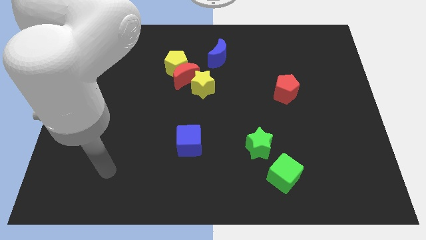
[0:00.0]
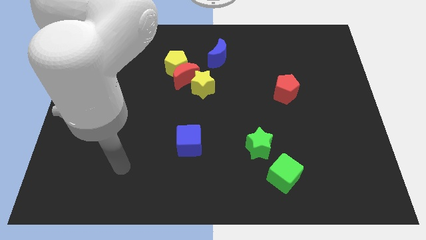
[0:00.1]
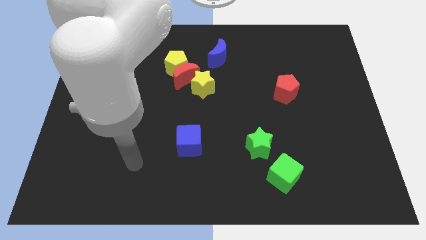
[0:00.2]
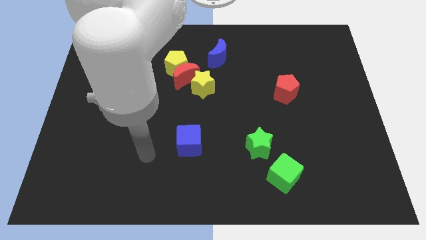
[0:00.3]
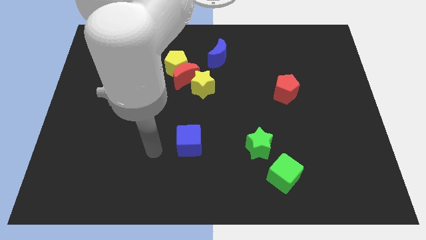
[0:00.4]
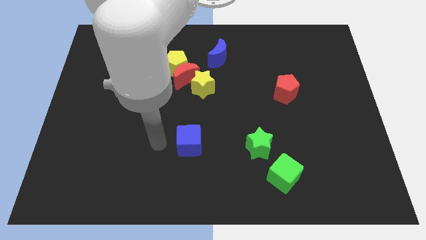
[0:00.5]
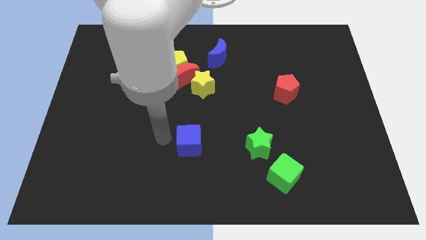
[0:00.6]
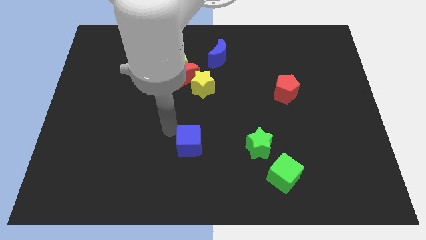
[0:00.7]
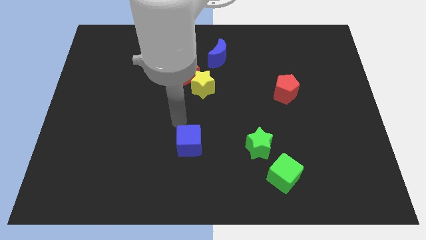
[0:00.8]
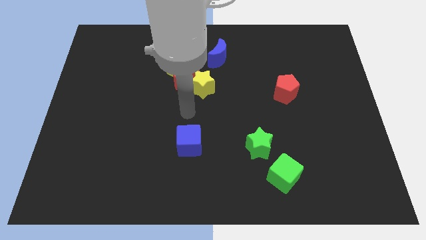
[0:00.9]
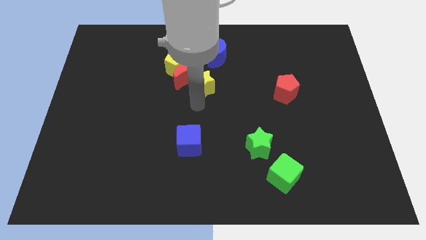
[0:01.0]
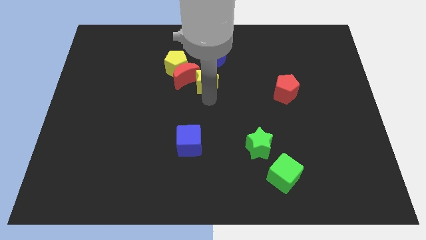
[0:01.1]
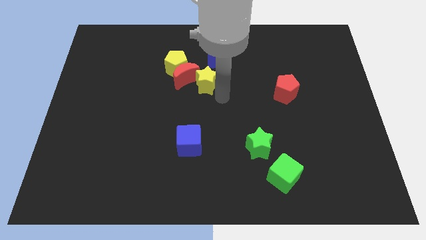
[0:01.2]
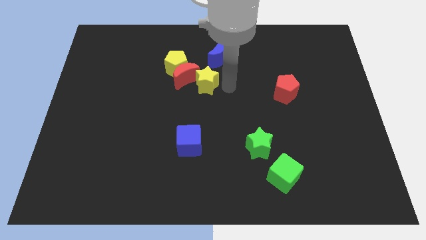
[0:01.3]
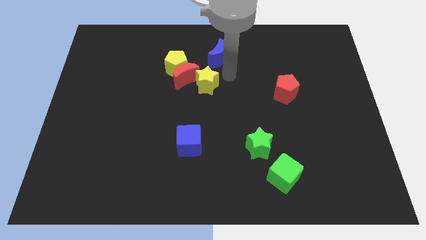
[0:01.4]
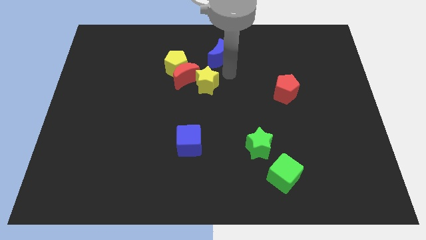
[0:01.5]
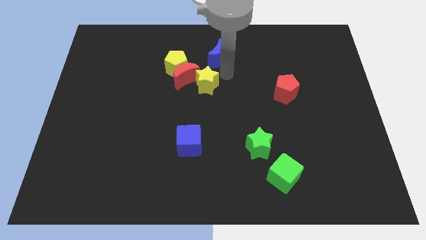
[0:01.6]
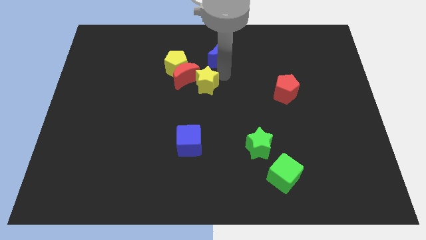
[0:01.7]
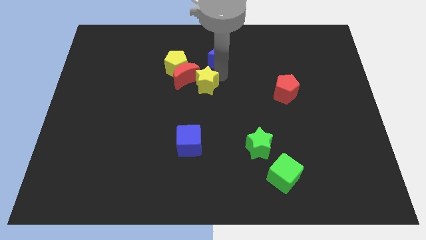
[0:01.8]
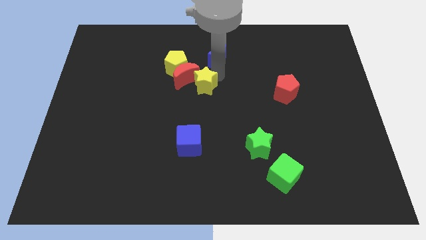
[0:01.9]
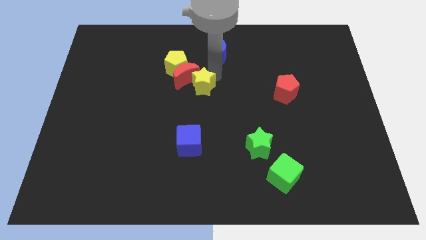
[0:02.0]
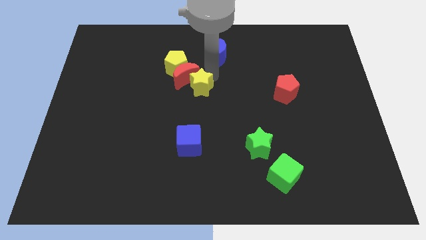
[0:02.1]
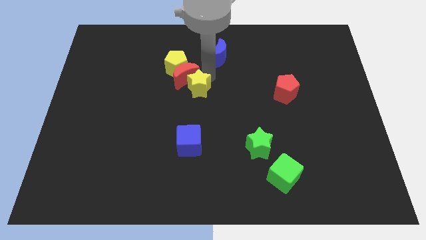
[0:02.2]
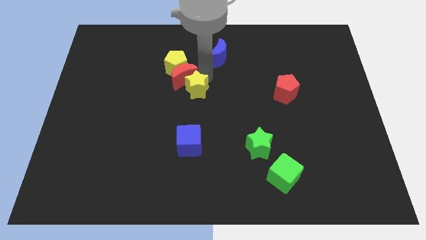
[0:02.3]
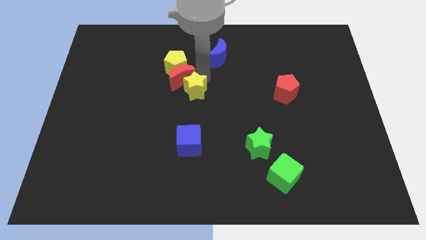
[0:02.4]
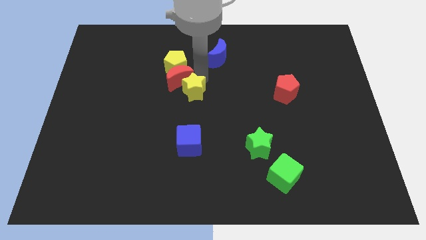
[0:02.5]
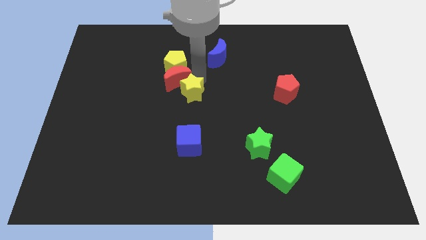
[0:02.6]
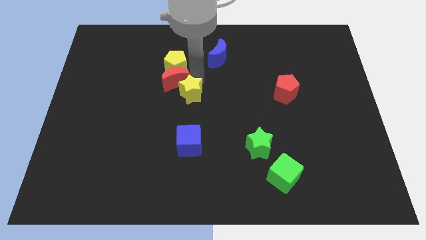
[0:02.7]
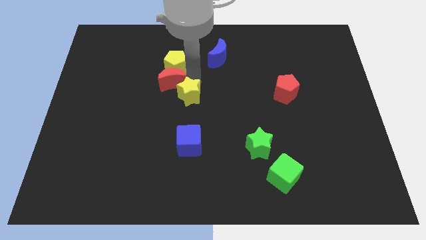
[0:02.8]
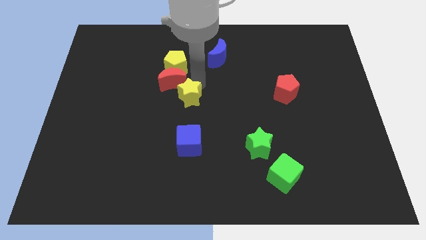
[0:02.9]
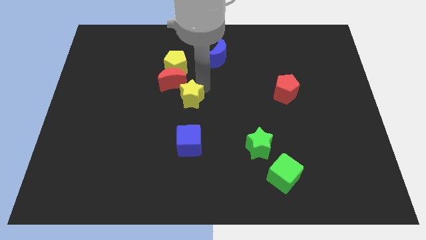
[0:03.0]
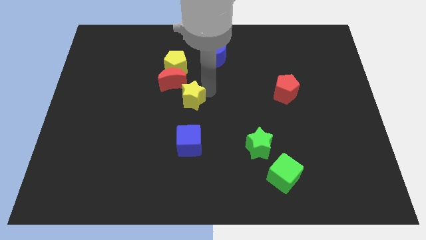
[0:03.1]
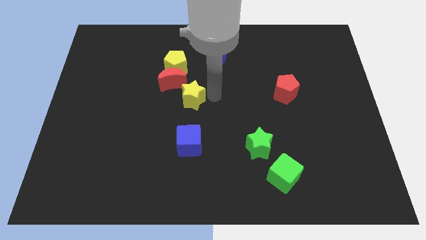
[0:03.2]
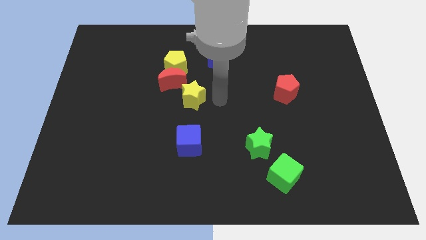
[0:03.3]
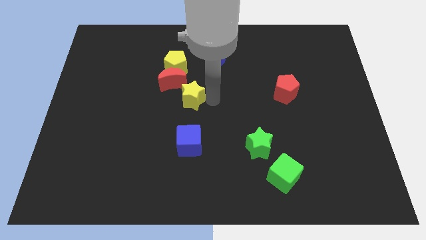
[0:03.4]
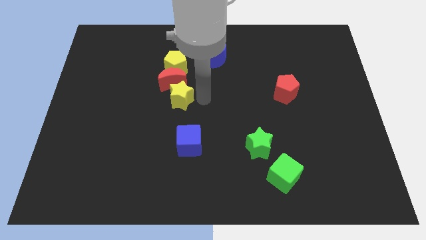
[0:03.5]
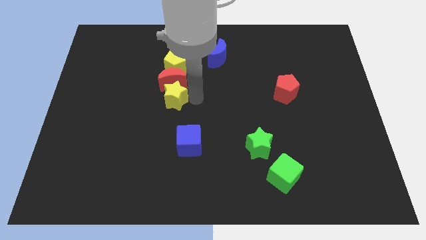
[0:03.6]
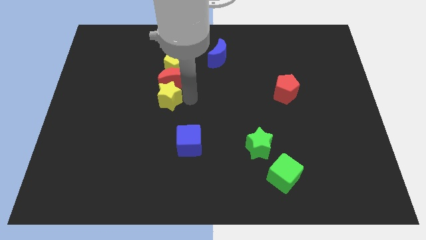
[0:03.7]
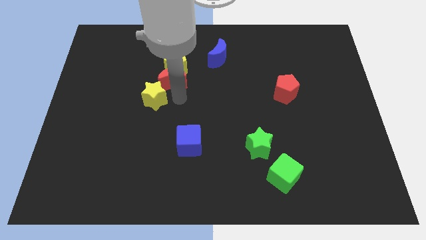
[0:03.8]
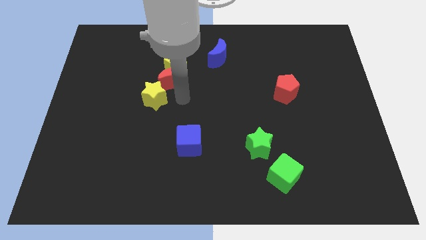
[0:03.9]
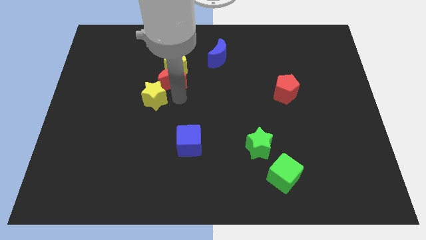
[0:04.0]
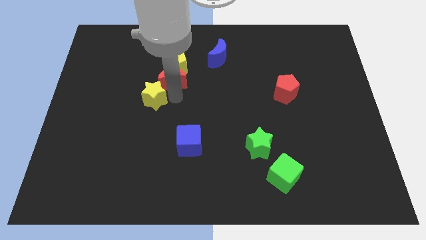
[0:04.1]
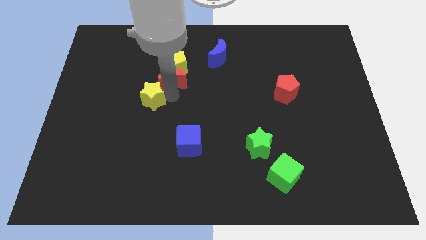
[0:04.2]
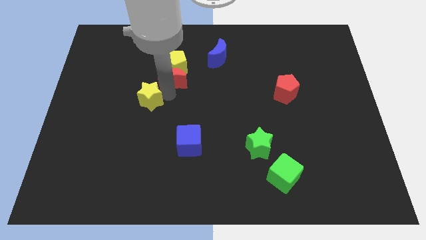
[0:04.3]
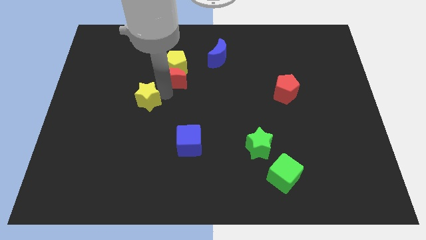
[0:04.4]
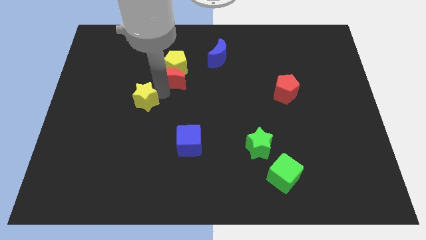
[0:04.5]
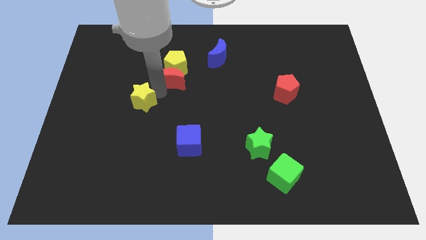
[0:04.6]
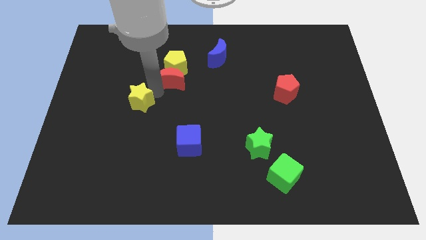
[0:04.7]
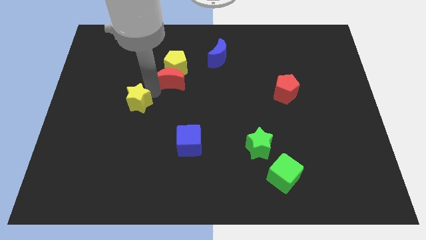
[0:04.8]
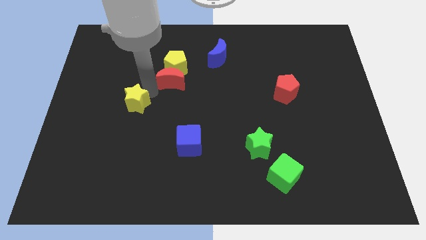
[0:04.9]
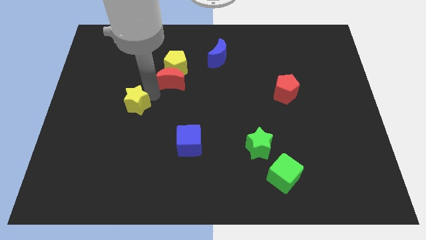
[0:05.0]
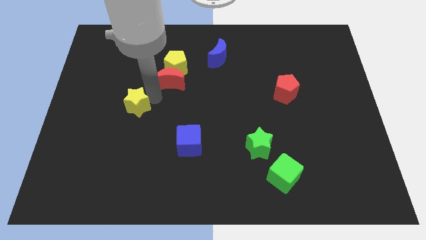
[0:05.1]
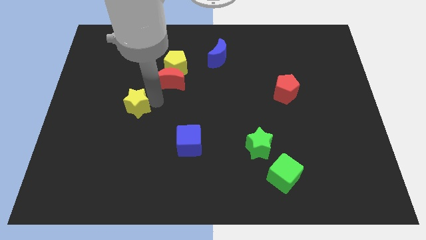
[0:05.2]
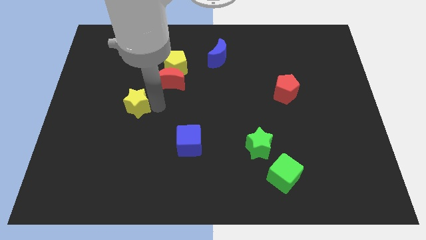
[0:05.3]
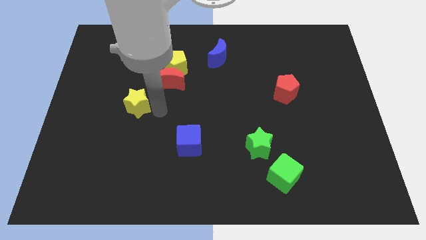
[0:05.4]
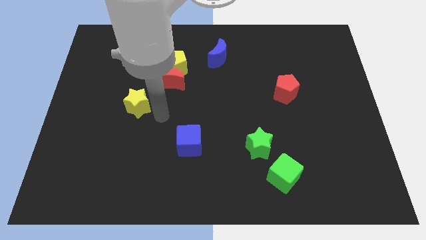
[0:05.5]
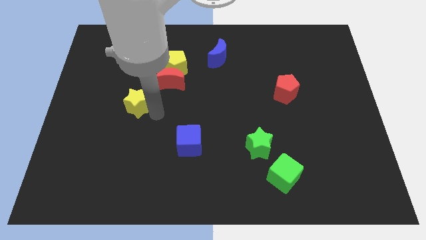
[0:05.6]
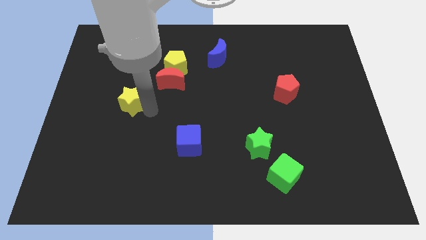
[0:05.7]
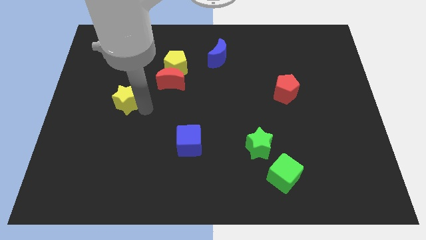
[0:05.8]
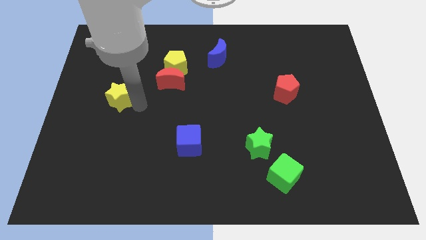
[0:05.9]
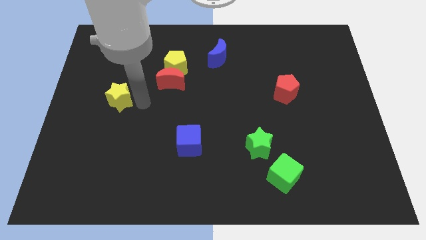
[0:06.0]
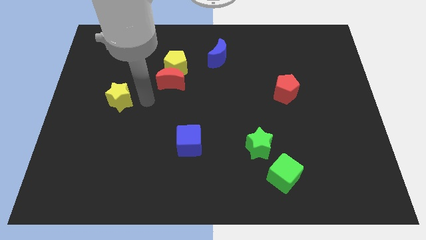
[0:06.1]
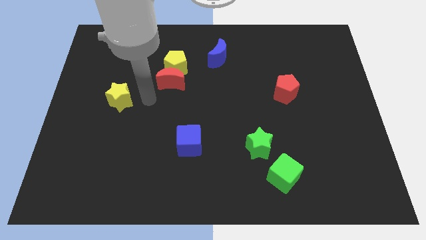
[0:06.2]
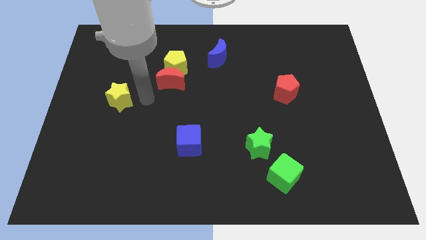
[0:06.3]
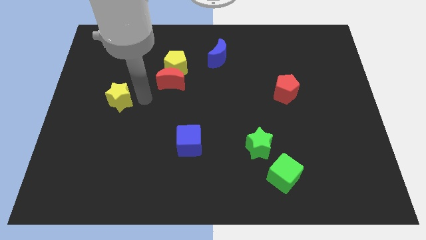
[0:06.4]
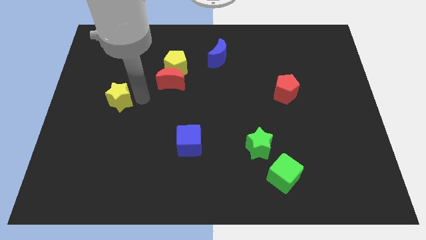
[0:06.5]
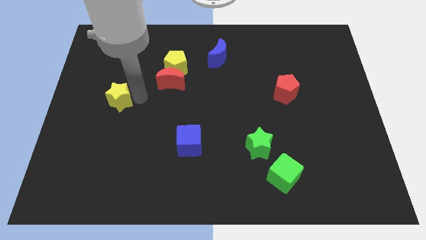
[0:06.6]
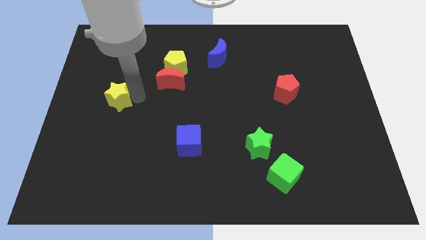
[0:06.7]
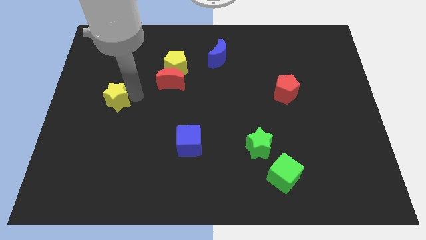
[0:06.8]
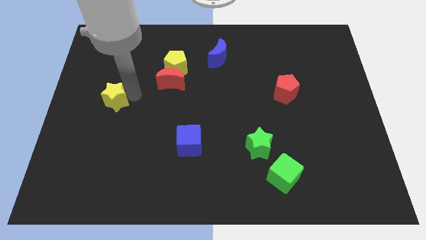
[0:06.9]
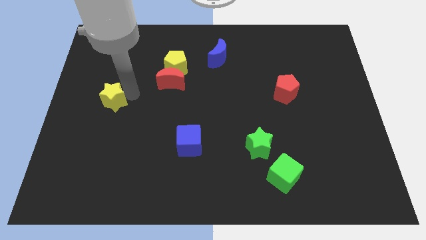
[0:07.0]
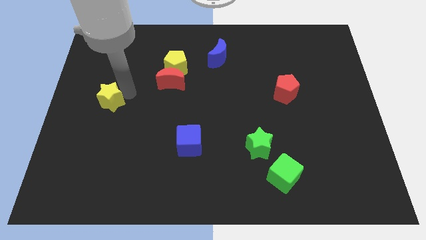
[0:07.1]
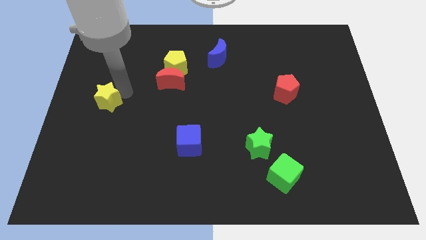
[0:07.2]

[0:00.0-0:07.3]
move the yellow star to the center left

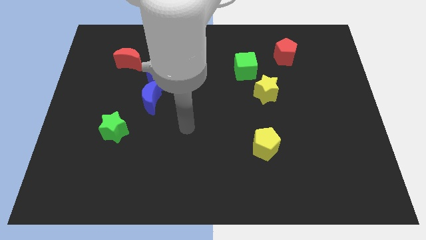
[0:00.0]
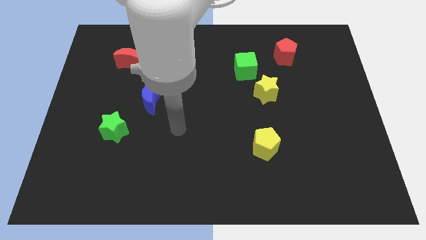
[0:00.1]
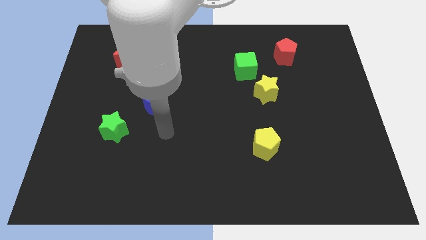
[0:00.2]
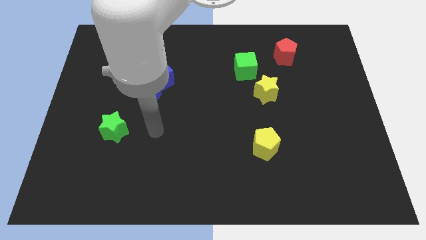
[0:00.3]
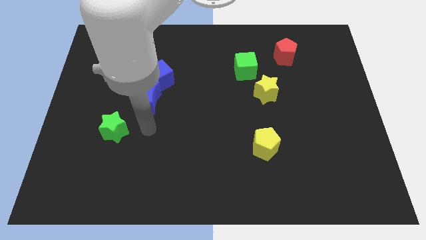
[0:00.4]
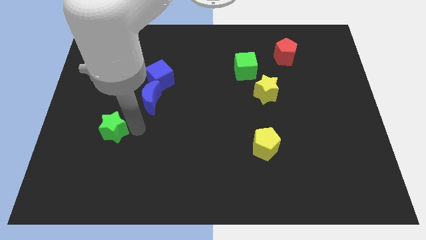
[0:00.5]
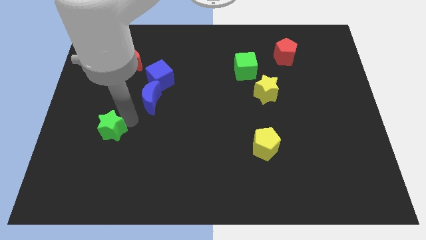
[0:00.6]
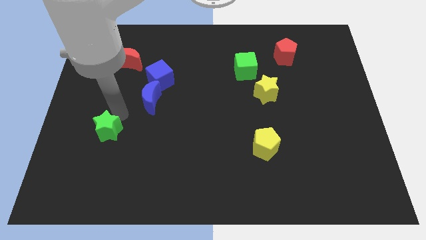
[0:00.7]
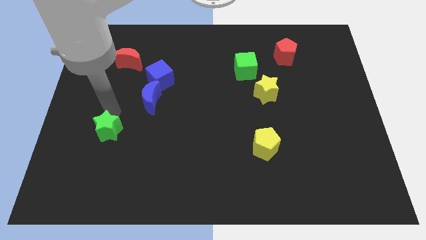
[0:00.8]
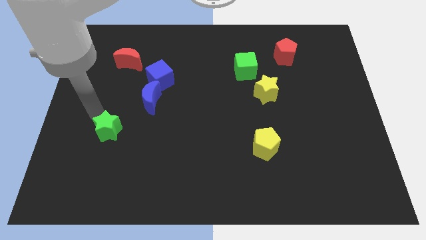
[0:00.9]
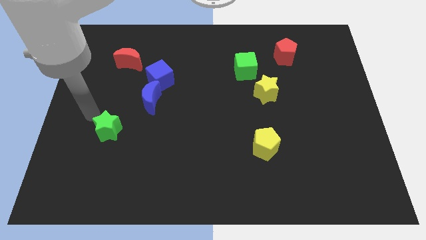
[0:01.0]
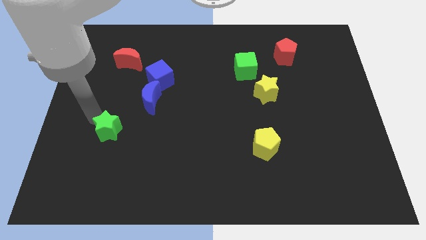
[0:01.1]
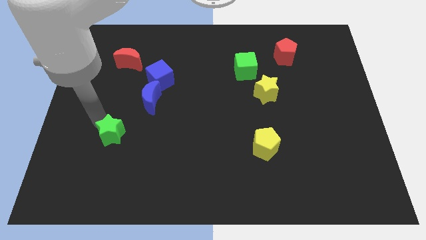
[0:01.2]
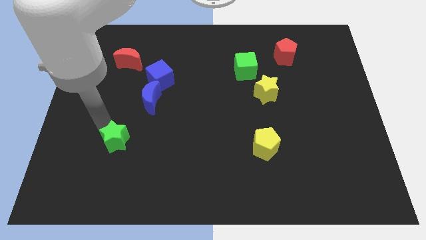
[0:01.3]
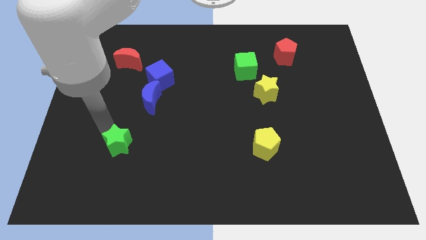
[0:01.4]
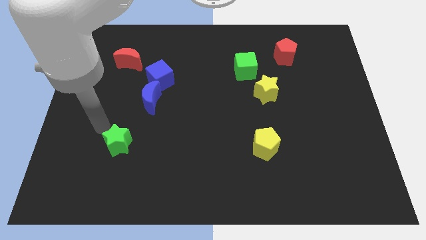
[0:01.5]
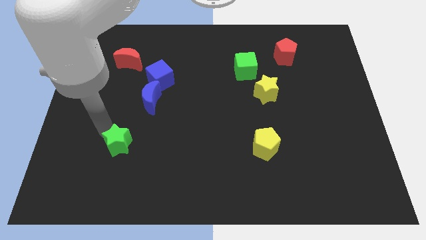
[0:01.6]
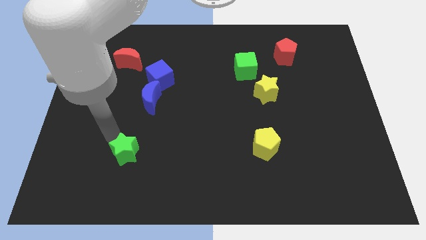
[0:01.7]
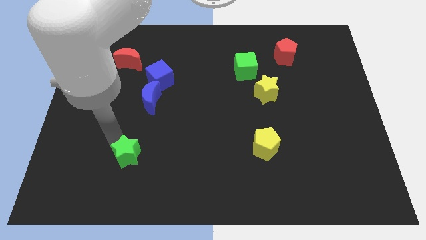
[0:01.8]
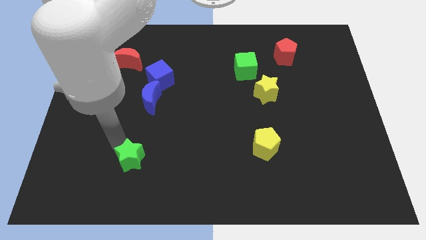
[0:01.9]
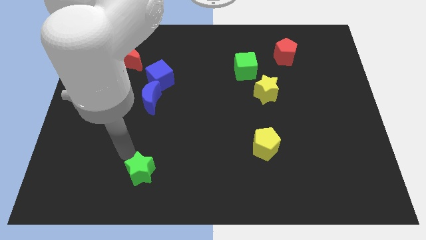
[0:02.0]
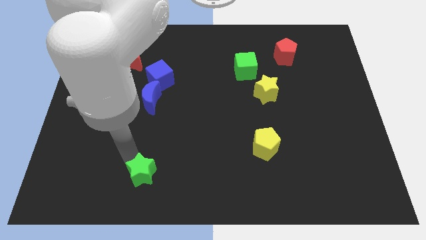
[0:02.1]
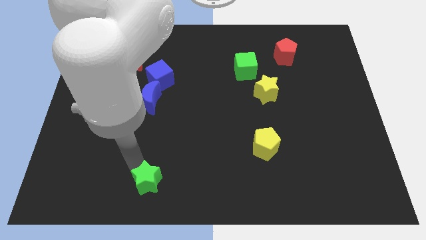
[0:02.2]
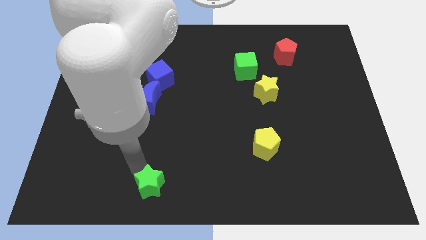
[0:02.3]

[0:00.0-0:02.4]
slide the green star to the bottom
